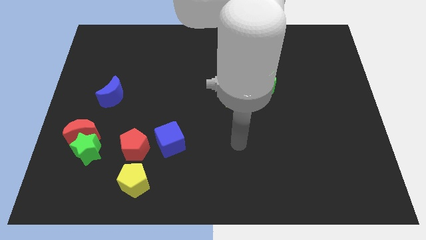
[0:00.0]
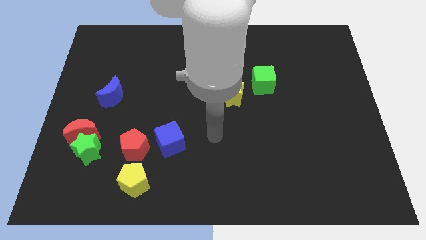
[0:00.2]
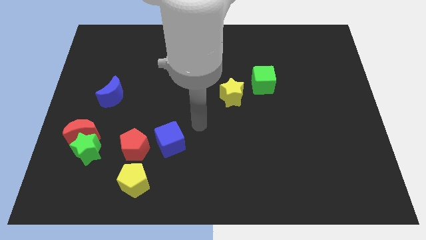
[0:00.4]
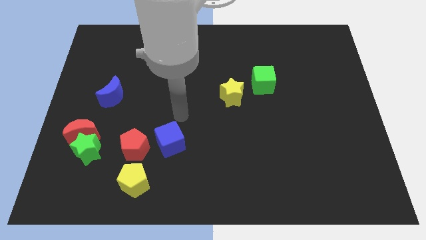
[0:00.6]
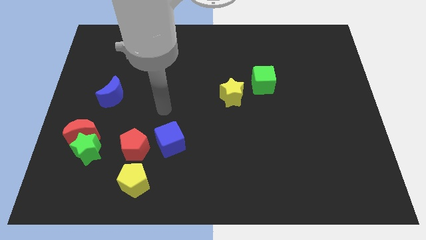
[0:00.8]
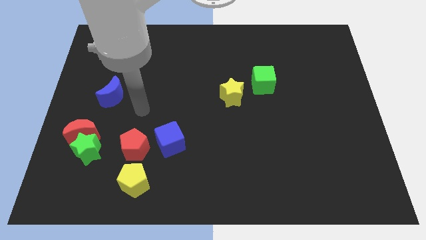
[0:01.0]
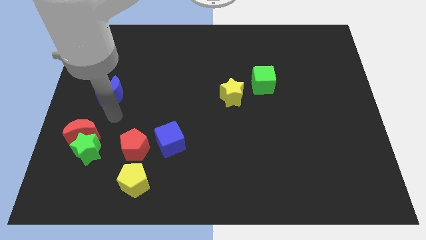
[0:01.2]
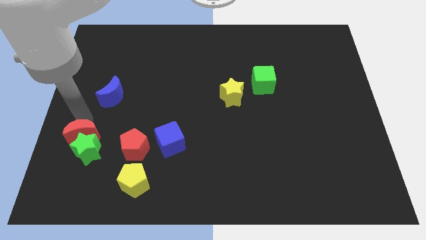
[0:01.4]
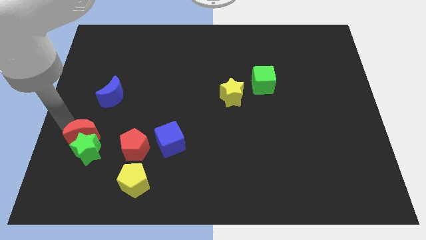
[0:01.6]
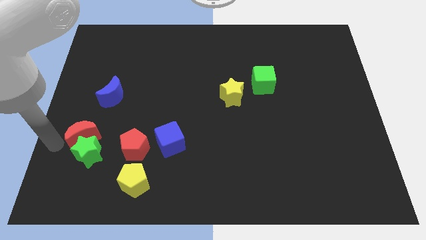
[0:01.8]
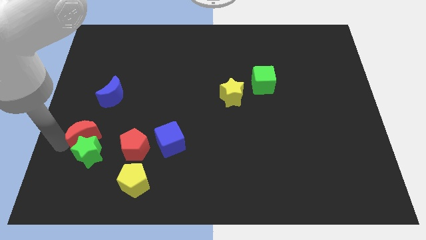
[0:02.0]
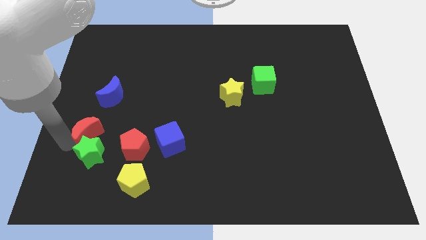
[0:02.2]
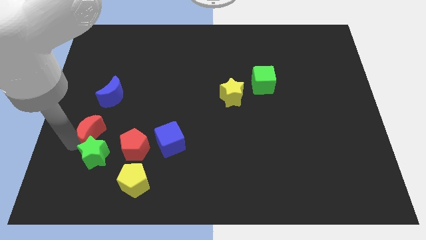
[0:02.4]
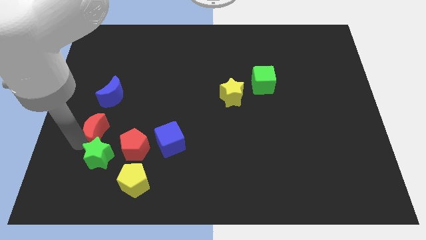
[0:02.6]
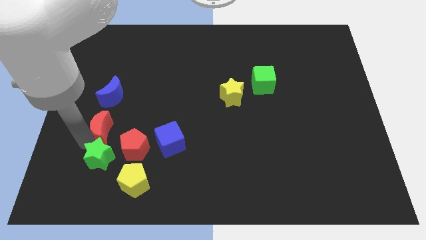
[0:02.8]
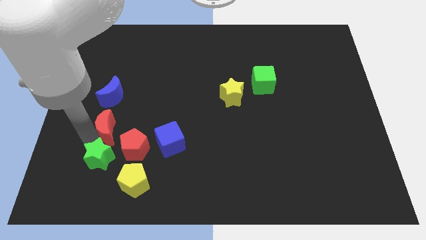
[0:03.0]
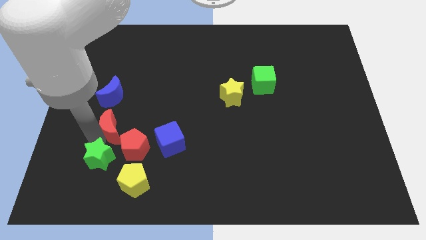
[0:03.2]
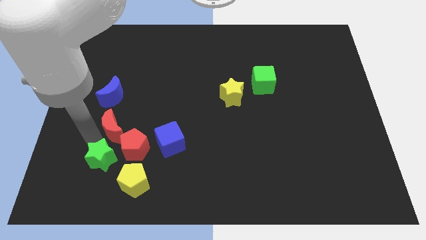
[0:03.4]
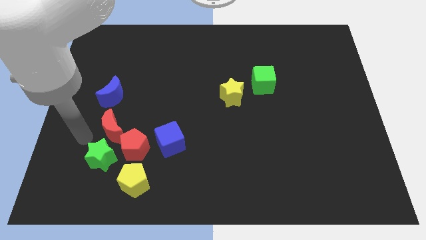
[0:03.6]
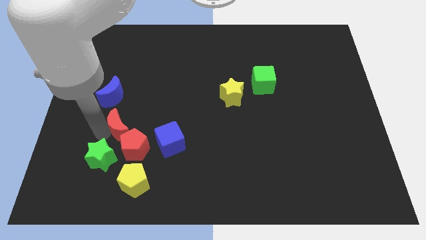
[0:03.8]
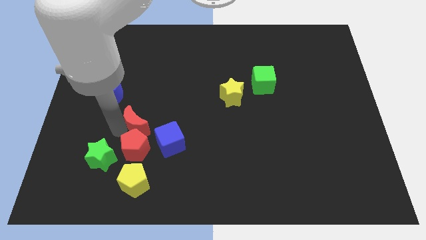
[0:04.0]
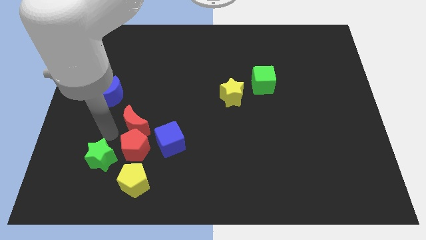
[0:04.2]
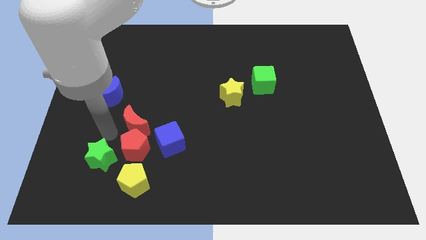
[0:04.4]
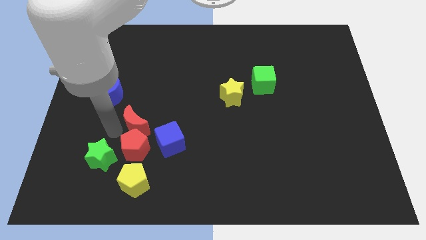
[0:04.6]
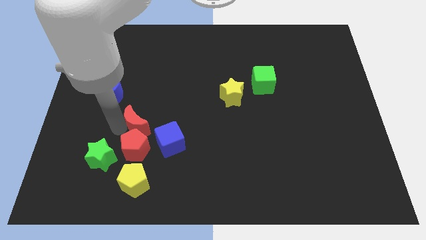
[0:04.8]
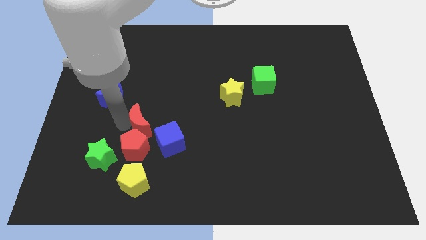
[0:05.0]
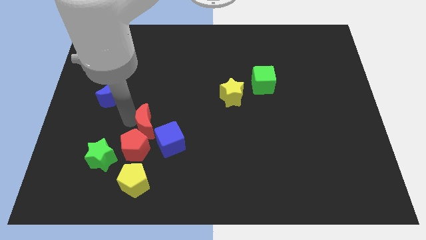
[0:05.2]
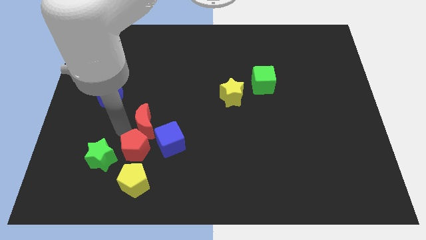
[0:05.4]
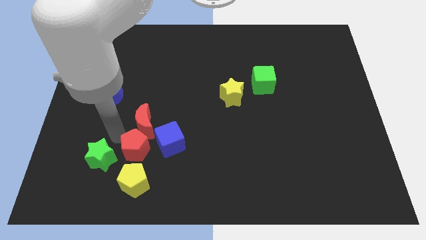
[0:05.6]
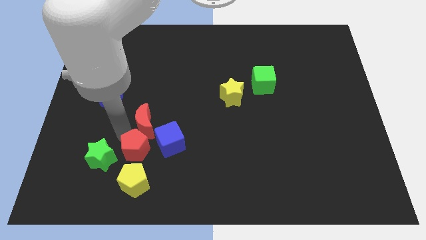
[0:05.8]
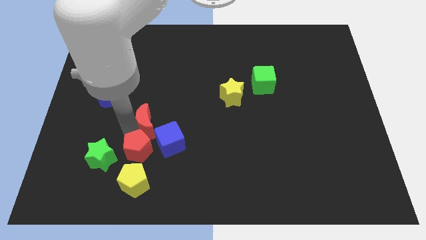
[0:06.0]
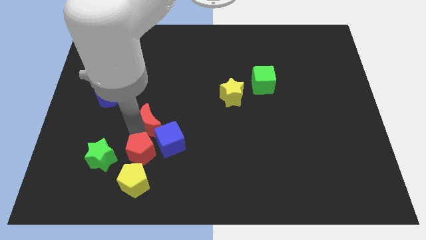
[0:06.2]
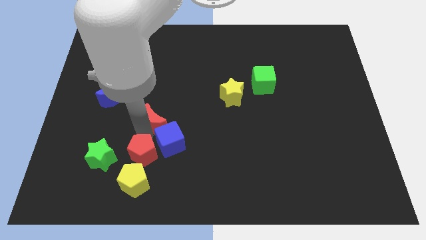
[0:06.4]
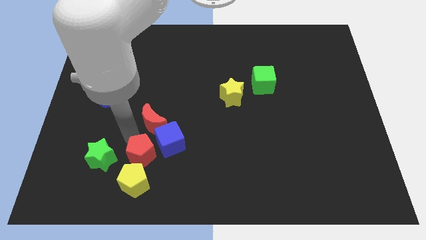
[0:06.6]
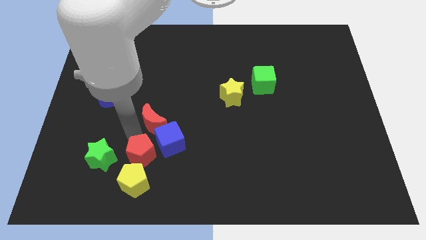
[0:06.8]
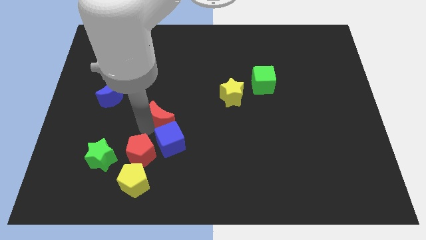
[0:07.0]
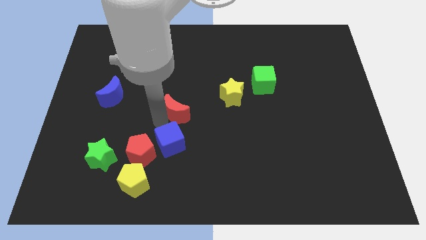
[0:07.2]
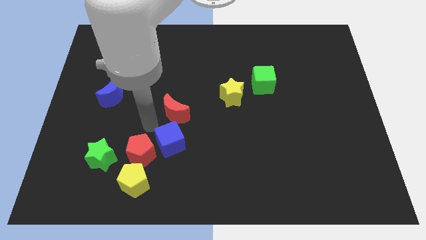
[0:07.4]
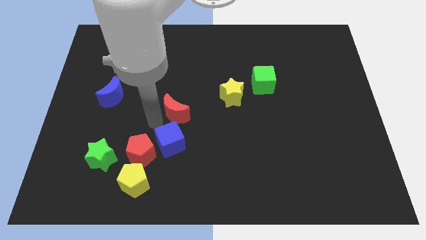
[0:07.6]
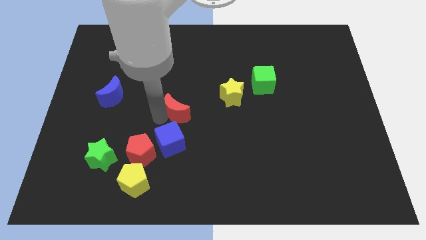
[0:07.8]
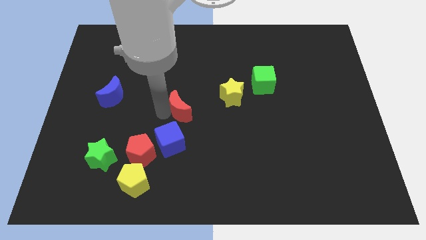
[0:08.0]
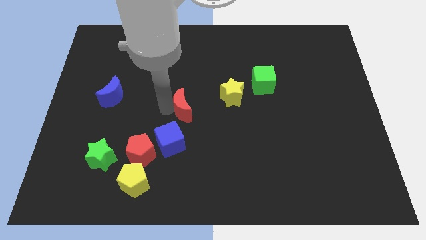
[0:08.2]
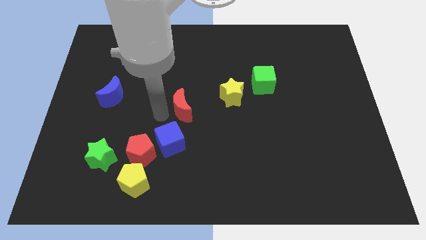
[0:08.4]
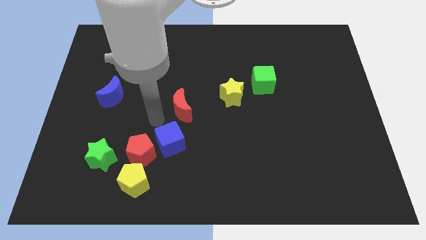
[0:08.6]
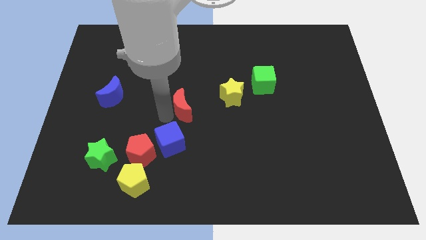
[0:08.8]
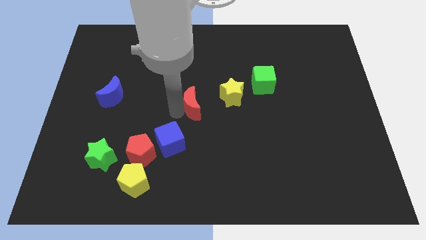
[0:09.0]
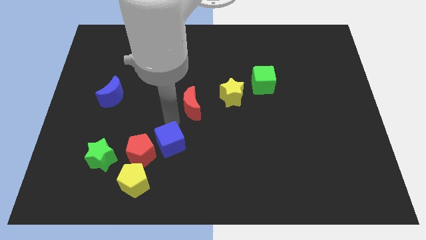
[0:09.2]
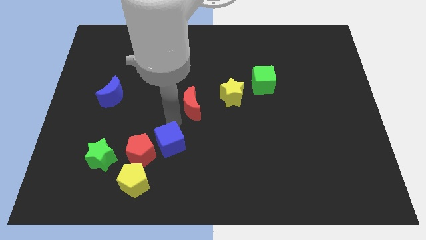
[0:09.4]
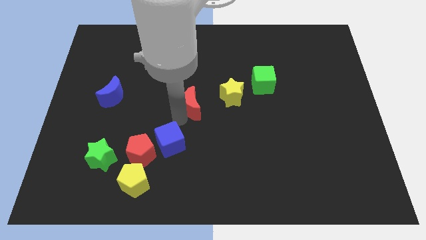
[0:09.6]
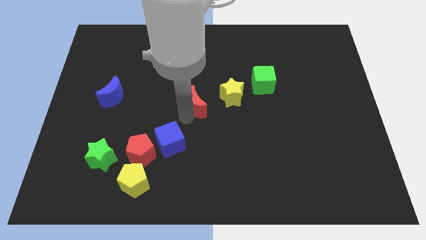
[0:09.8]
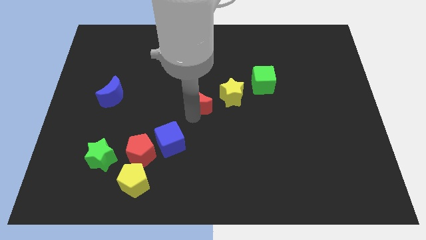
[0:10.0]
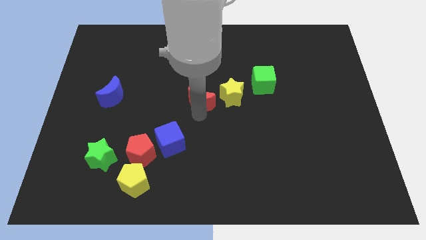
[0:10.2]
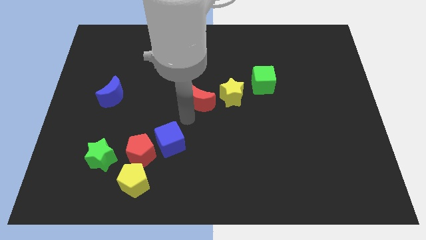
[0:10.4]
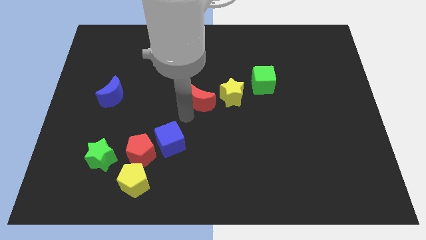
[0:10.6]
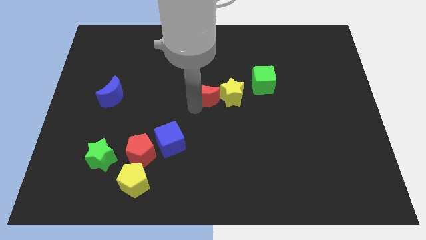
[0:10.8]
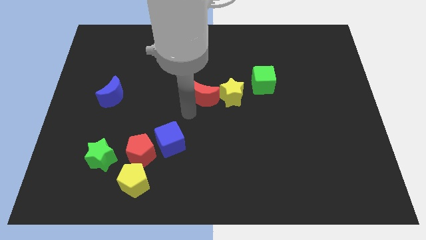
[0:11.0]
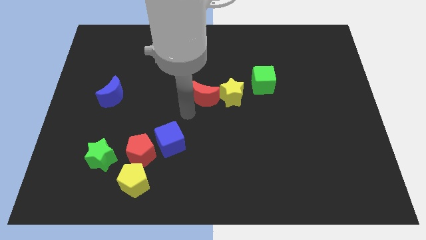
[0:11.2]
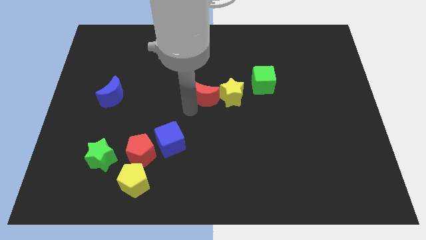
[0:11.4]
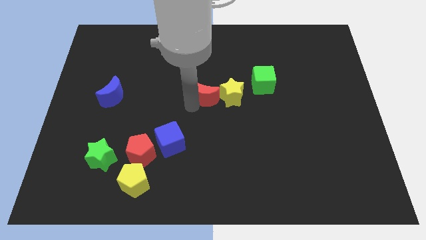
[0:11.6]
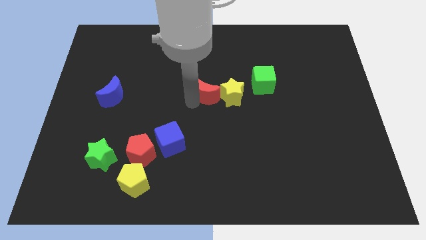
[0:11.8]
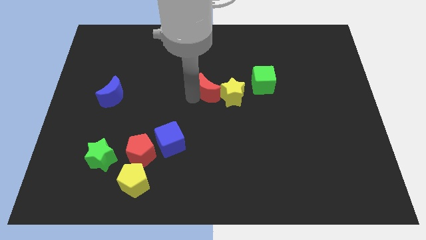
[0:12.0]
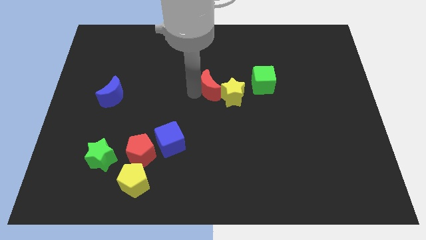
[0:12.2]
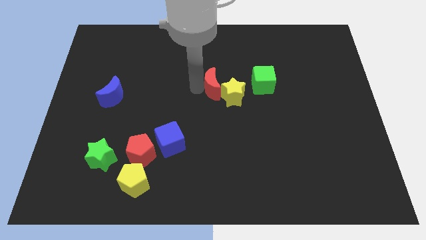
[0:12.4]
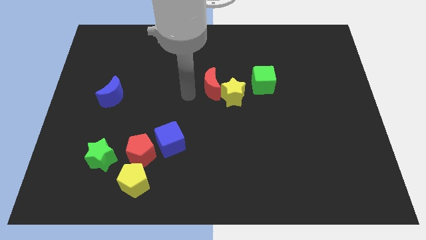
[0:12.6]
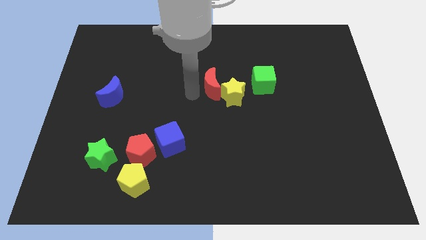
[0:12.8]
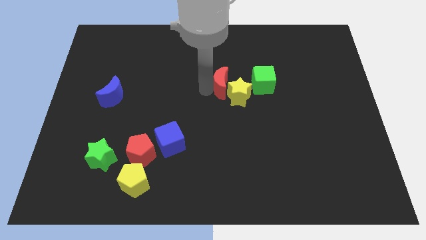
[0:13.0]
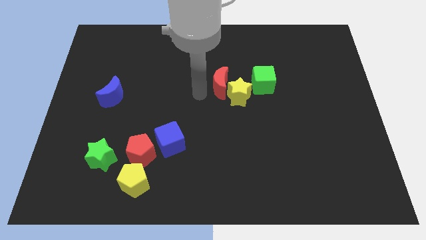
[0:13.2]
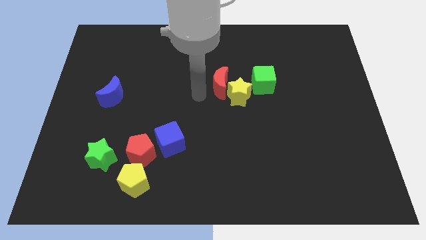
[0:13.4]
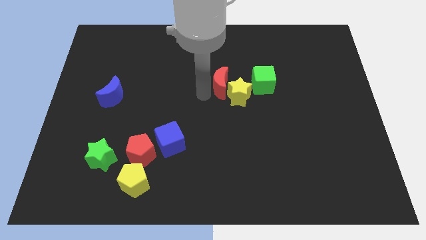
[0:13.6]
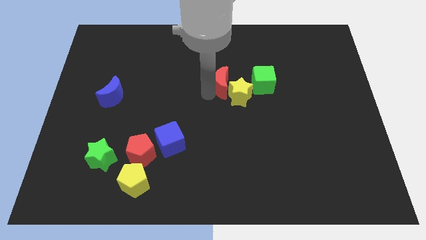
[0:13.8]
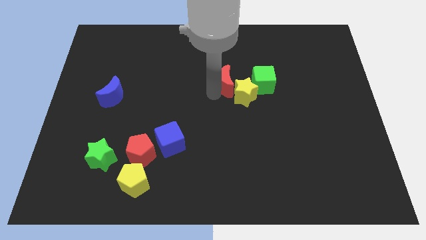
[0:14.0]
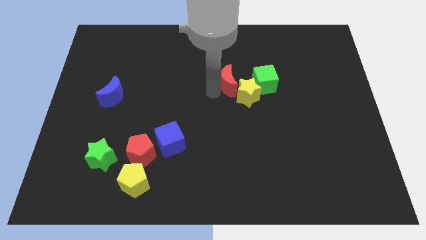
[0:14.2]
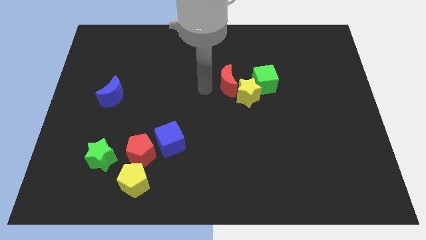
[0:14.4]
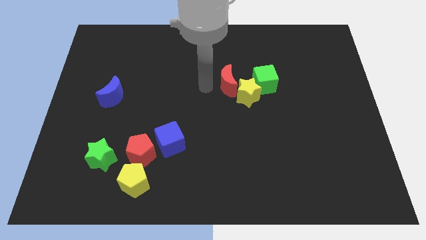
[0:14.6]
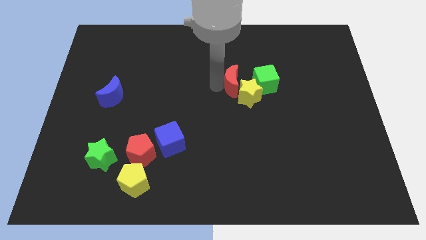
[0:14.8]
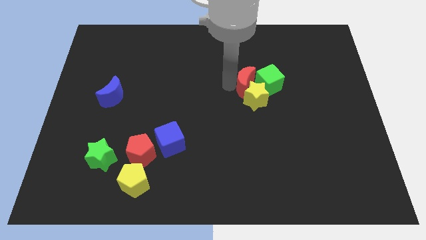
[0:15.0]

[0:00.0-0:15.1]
slide the red moon close to the green cube

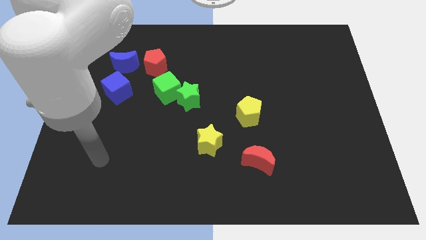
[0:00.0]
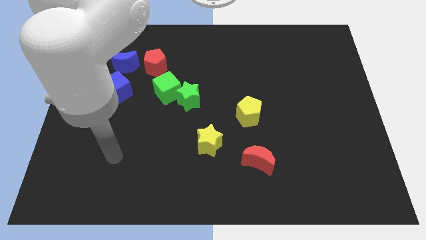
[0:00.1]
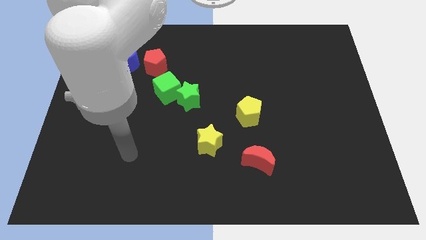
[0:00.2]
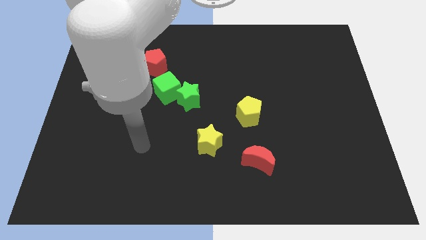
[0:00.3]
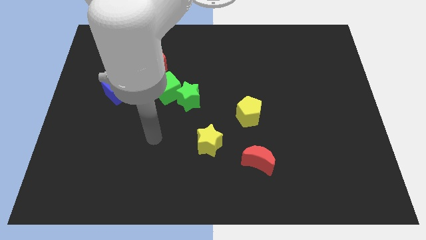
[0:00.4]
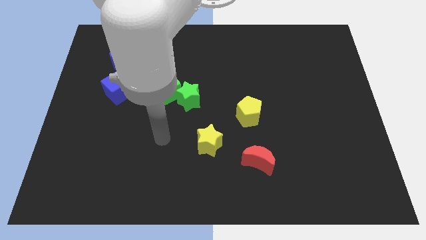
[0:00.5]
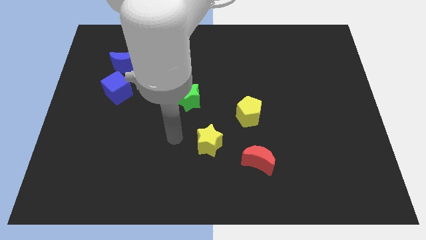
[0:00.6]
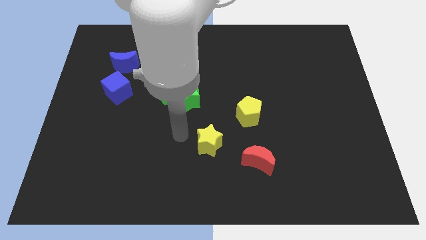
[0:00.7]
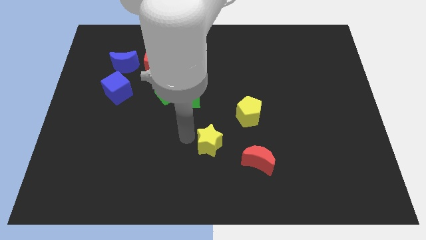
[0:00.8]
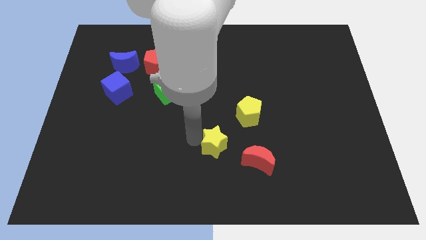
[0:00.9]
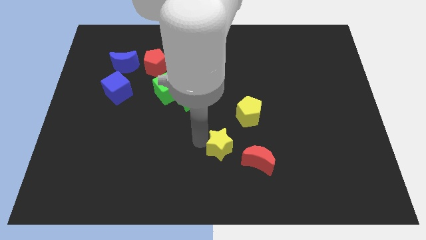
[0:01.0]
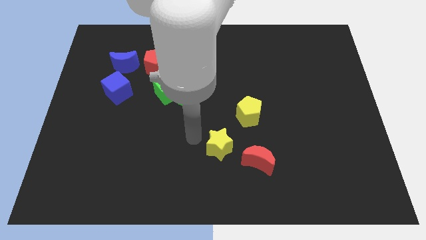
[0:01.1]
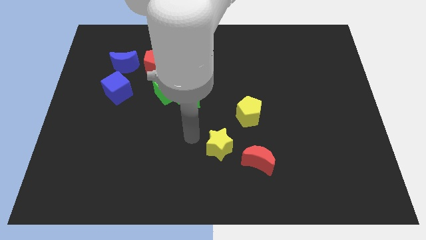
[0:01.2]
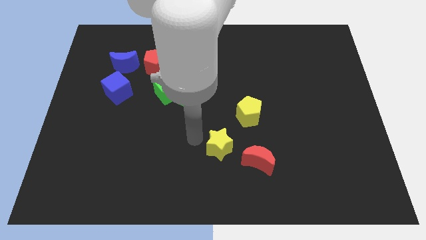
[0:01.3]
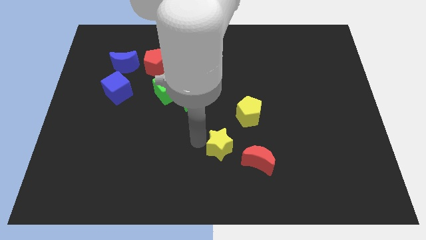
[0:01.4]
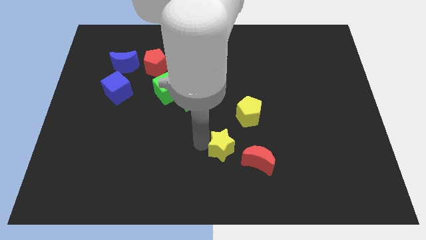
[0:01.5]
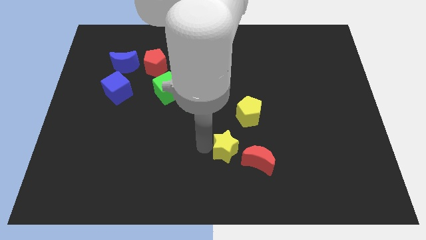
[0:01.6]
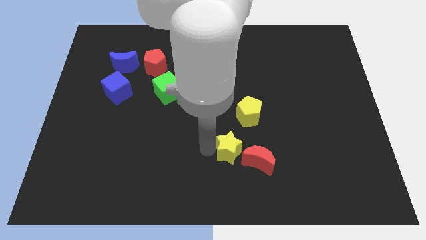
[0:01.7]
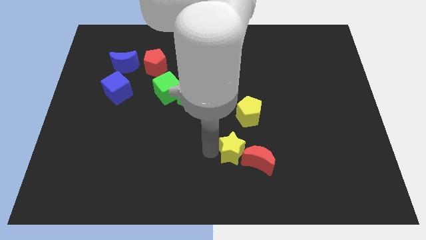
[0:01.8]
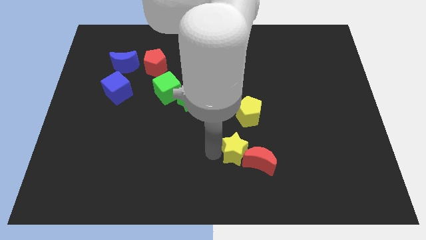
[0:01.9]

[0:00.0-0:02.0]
push the yellow star next to the red moon
